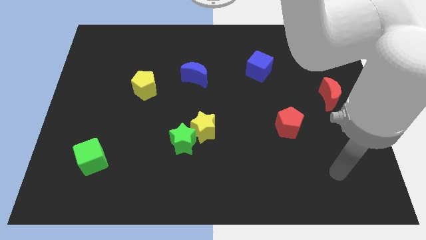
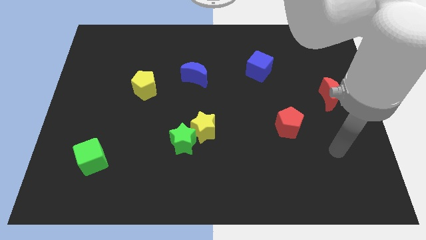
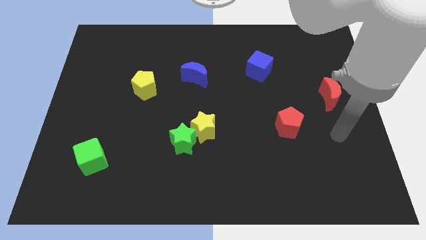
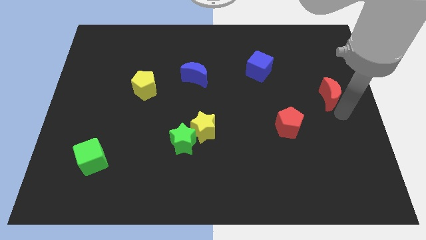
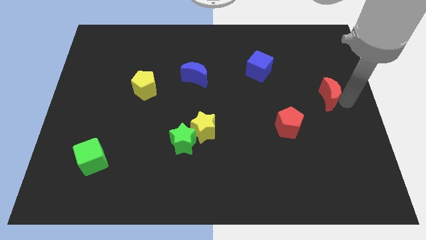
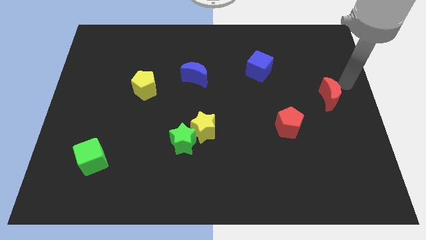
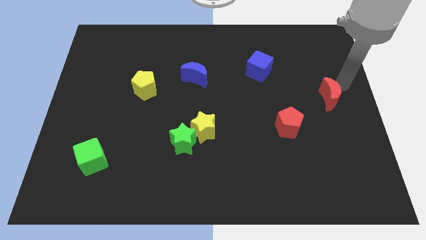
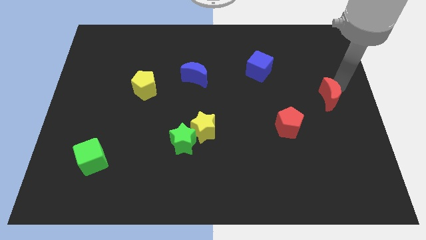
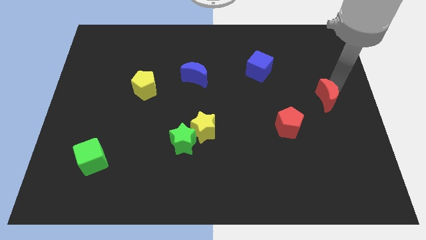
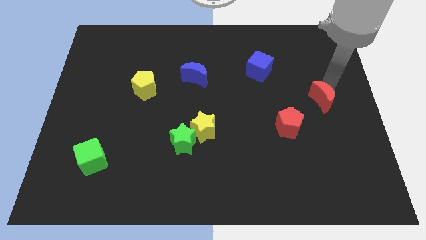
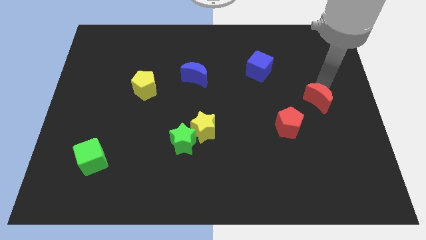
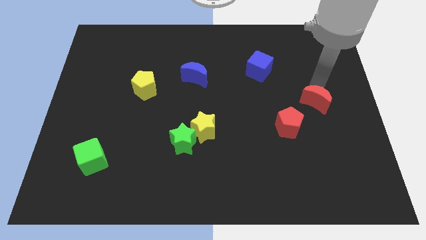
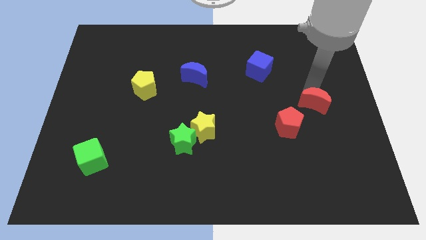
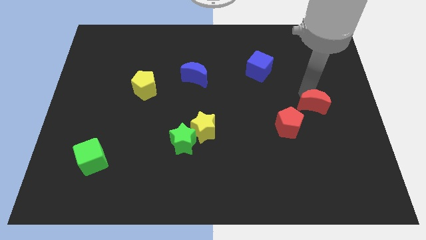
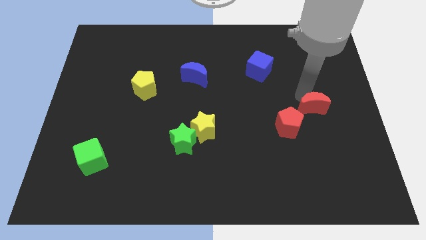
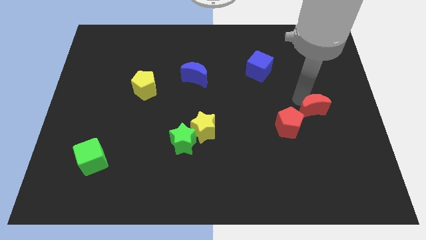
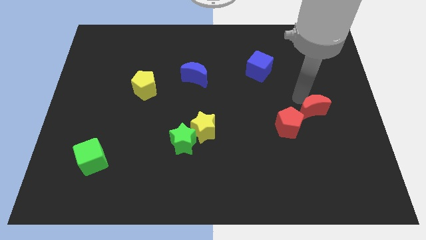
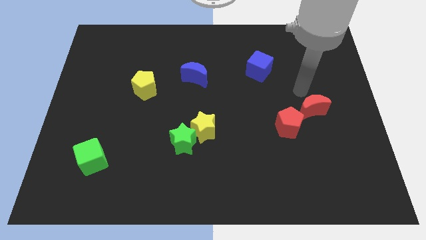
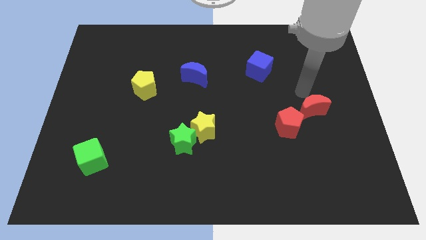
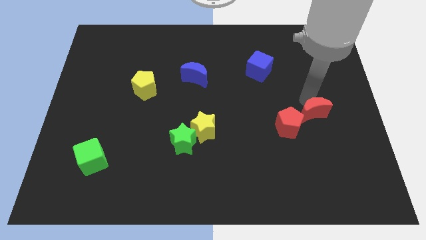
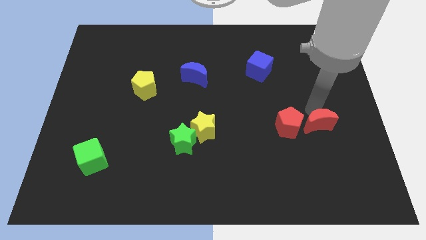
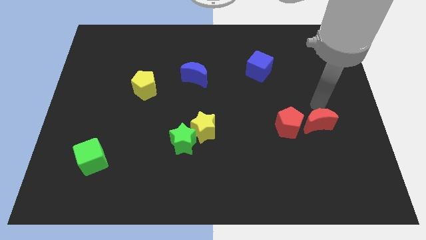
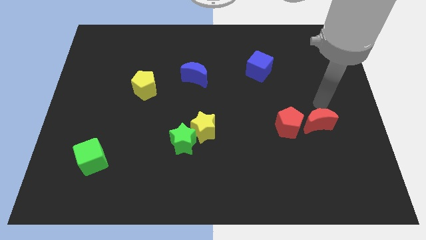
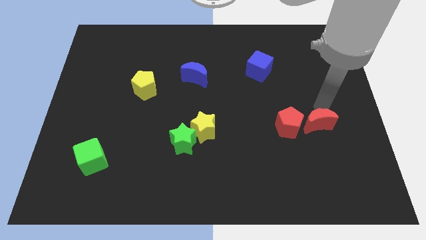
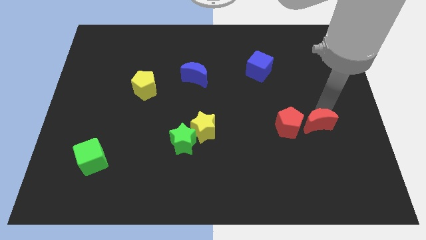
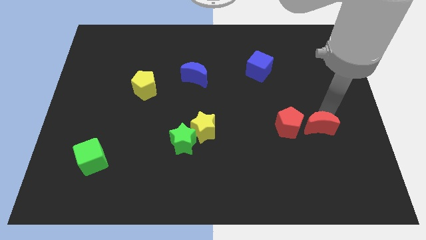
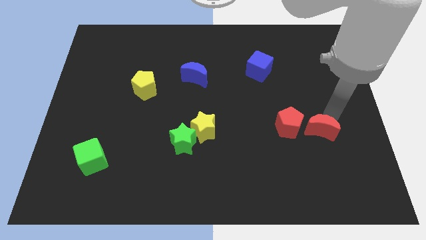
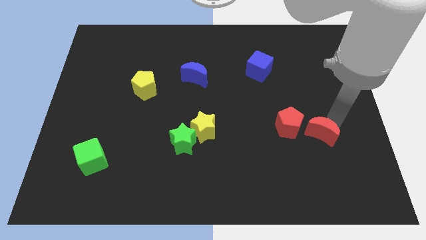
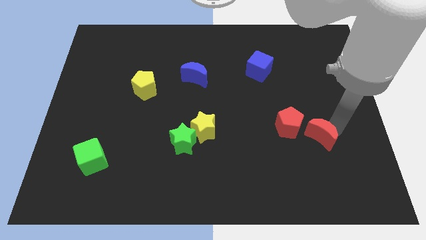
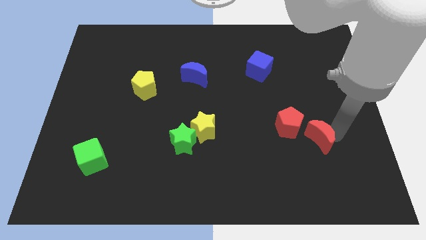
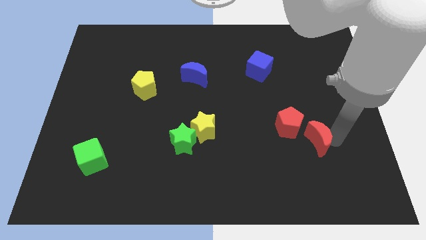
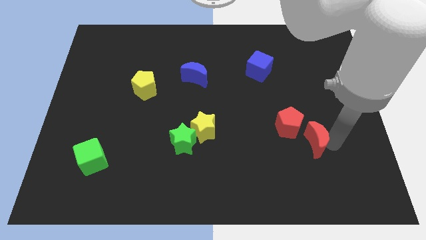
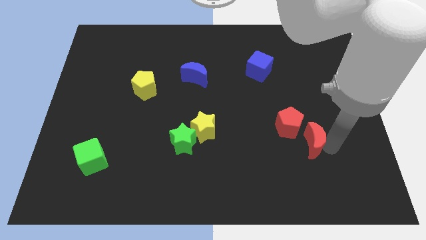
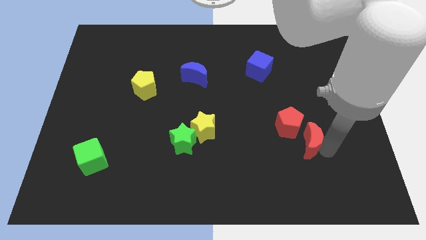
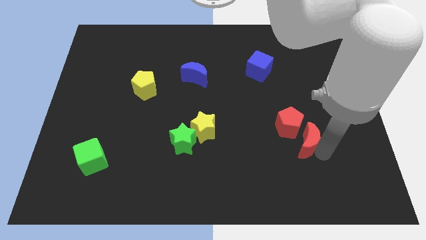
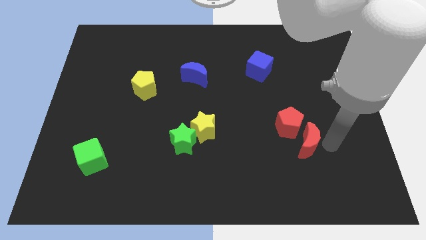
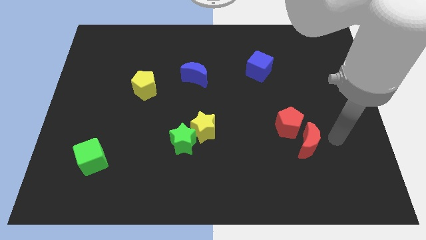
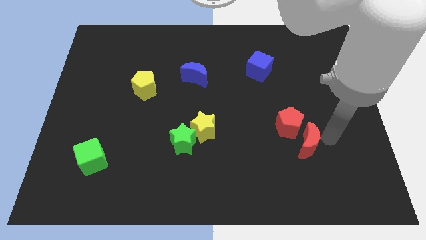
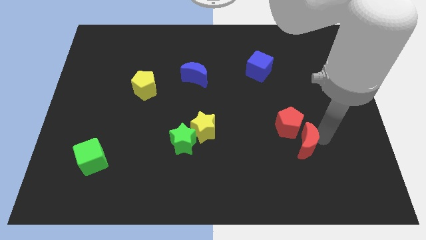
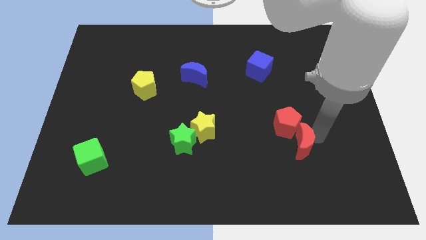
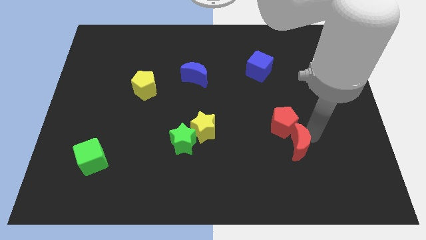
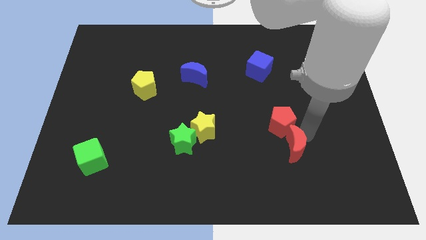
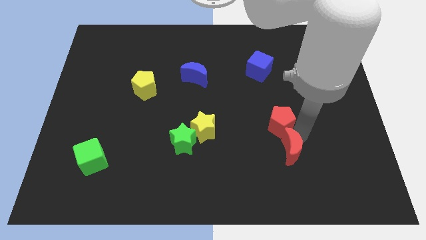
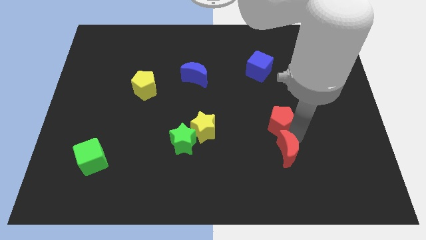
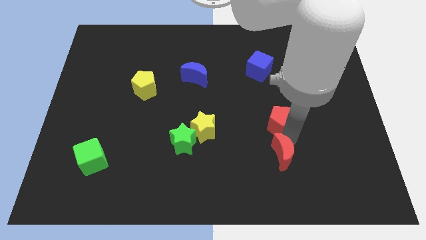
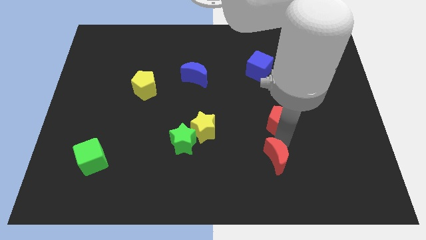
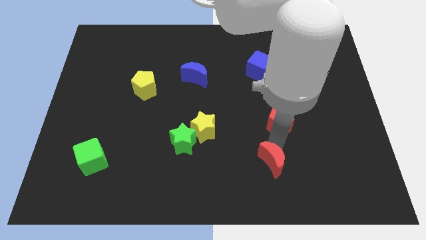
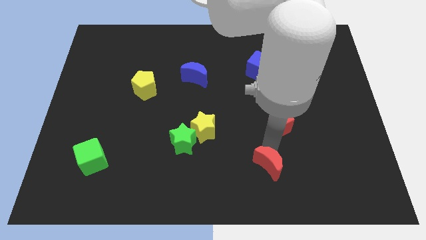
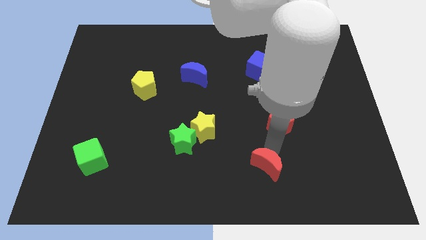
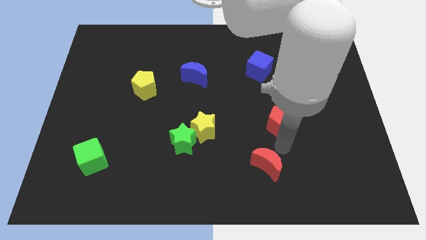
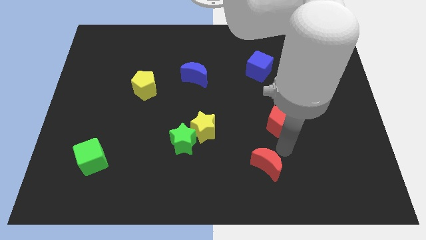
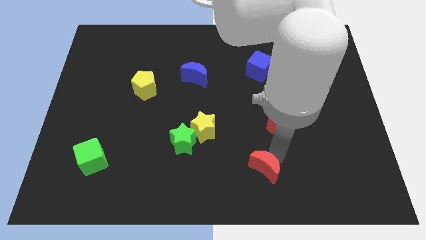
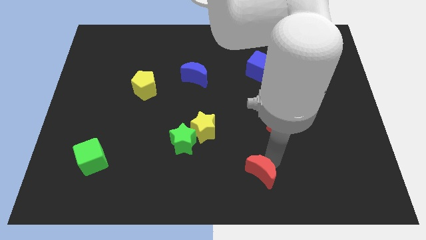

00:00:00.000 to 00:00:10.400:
push the red moon to the bottom

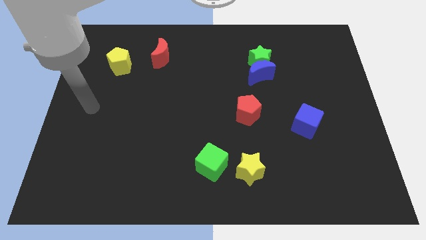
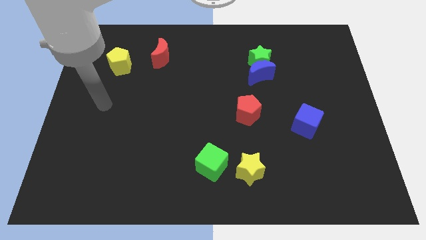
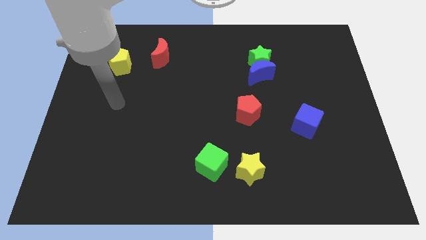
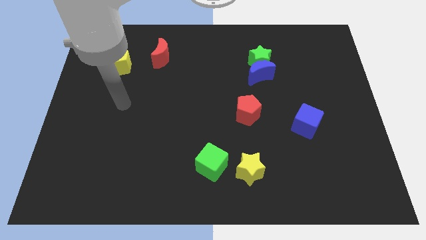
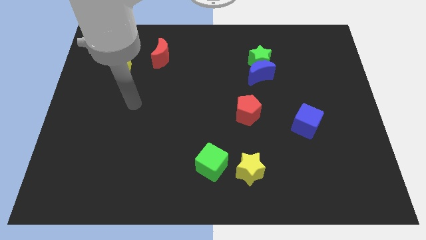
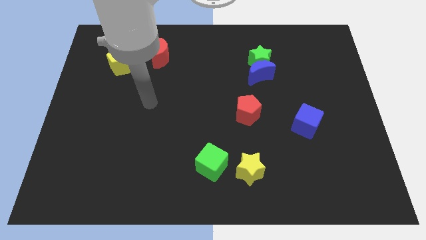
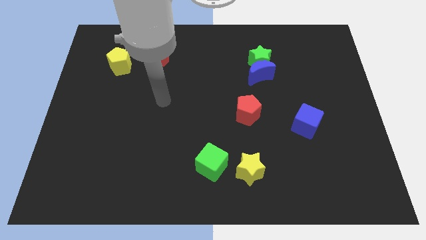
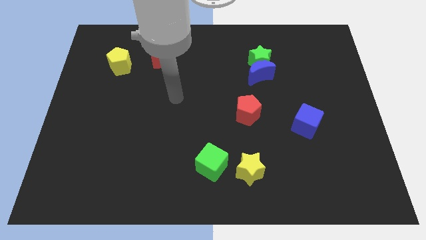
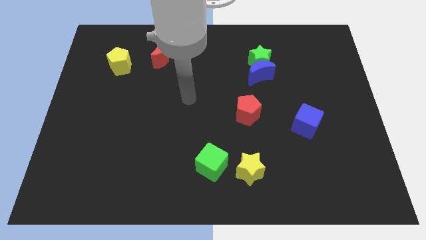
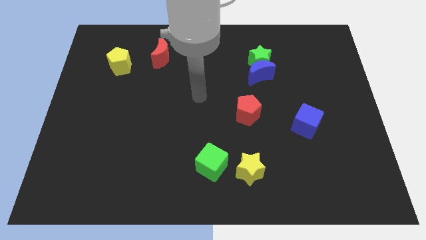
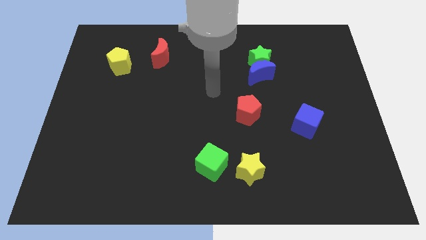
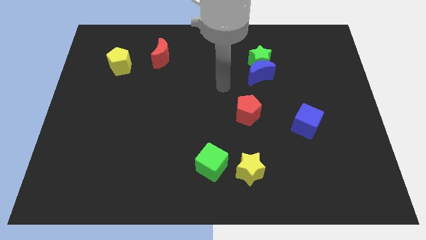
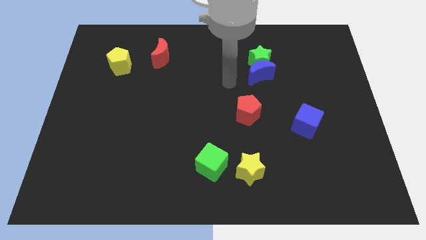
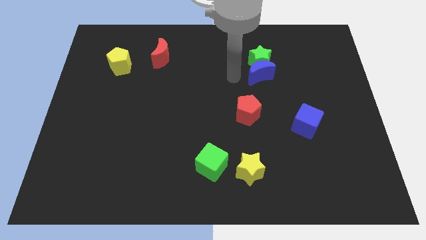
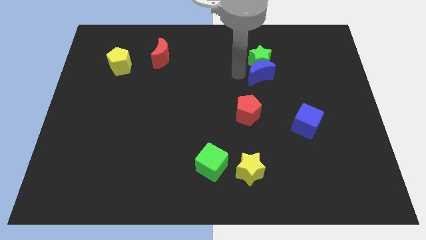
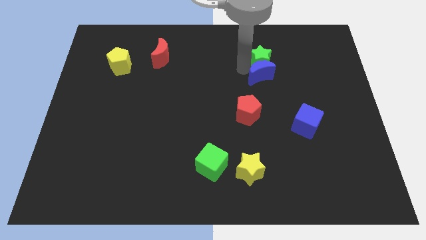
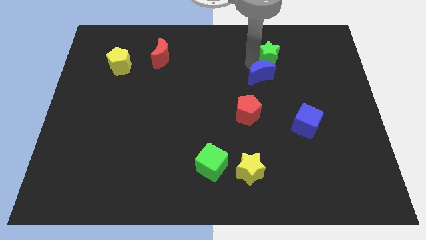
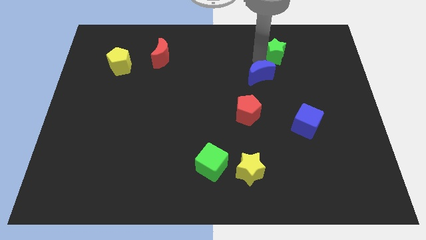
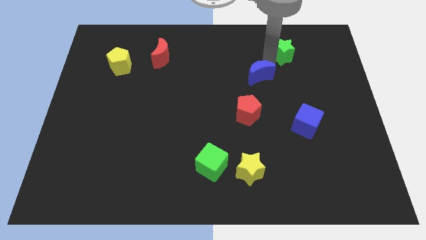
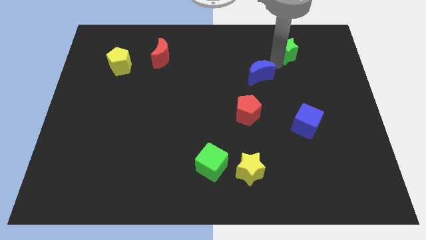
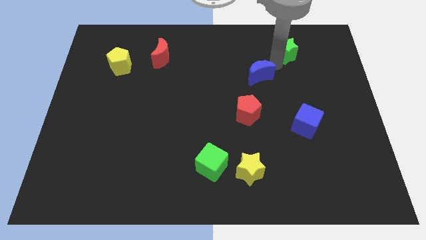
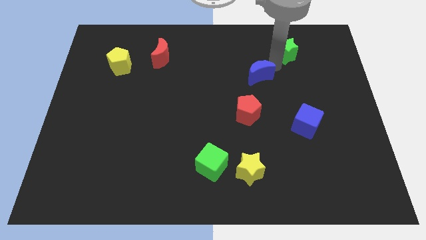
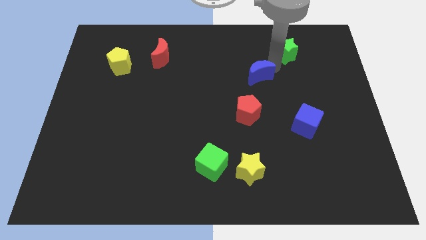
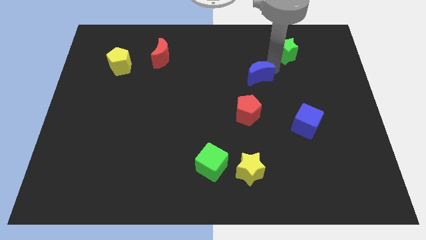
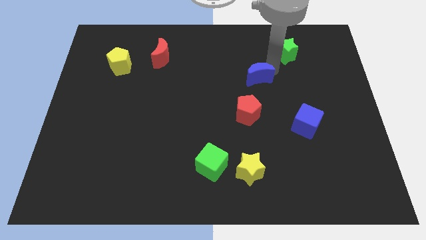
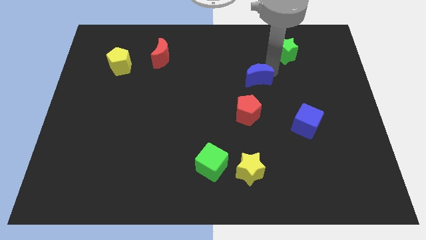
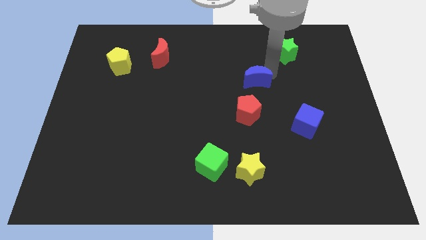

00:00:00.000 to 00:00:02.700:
push the blue moon to the middle of the board
